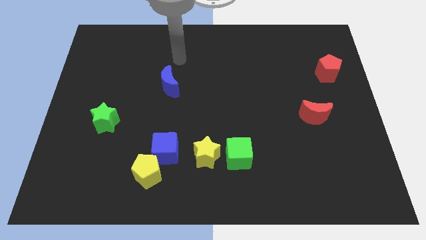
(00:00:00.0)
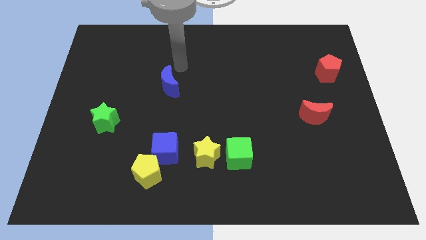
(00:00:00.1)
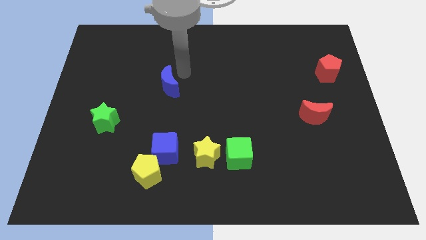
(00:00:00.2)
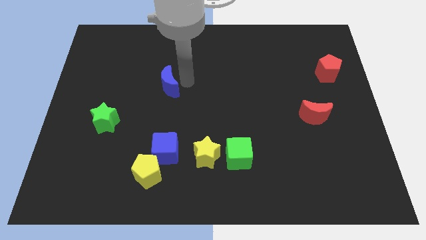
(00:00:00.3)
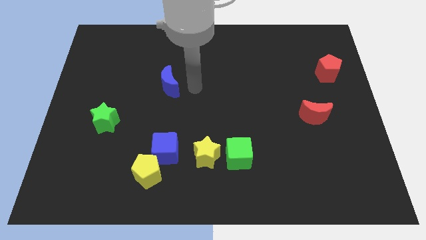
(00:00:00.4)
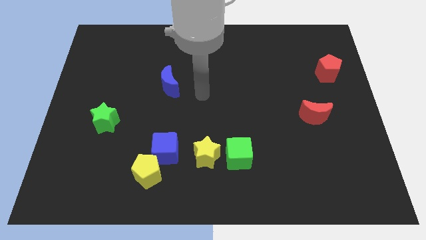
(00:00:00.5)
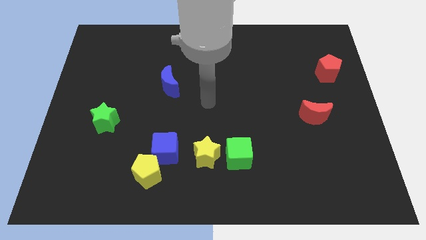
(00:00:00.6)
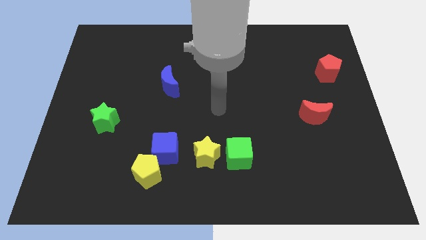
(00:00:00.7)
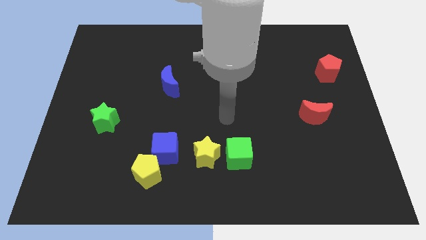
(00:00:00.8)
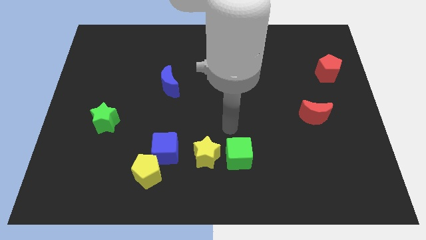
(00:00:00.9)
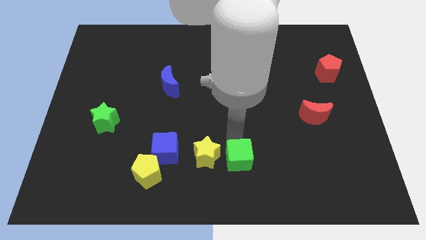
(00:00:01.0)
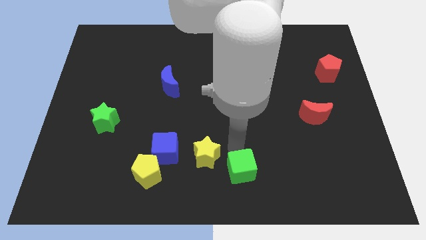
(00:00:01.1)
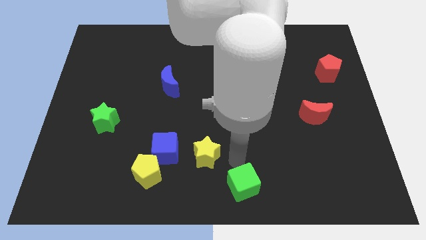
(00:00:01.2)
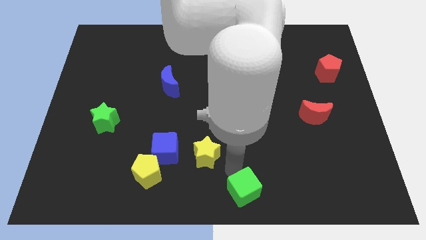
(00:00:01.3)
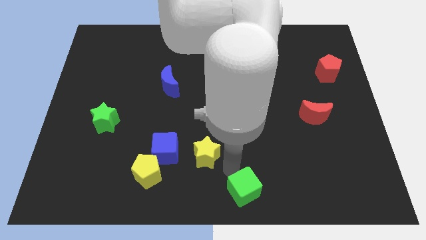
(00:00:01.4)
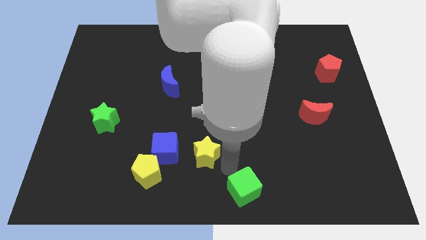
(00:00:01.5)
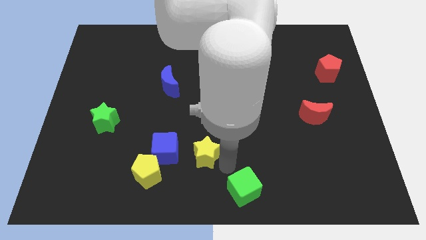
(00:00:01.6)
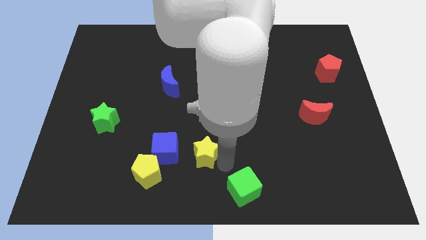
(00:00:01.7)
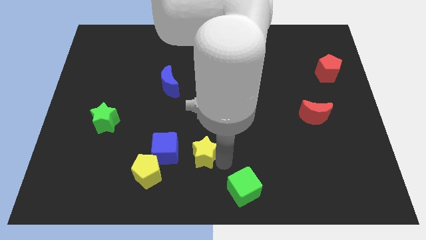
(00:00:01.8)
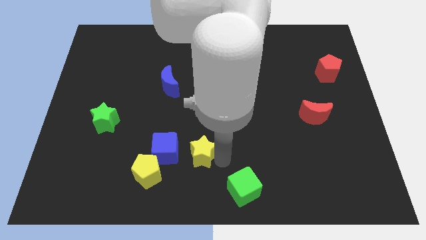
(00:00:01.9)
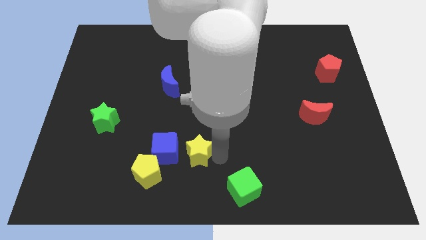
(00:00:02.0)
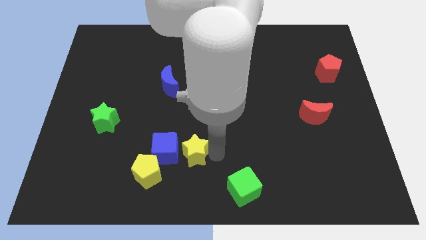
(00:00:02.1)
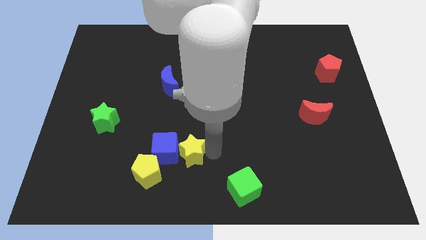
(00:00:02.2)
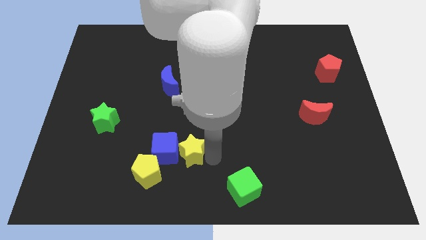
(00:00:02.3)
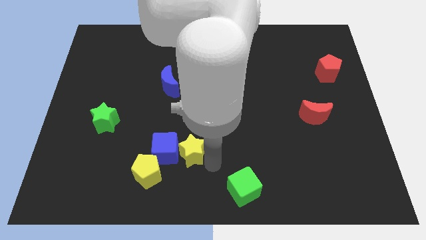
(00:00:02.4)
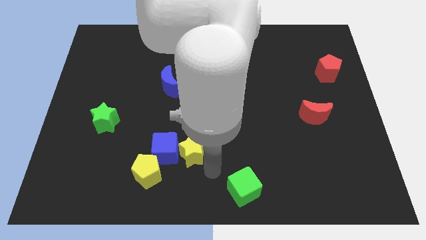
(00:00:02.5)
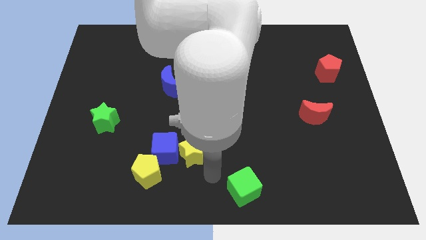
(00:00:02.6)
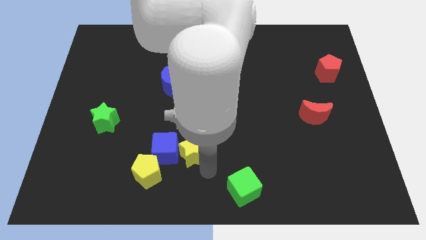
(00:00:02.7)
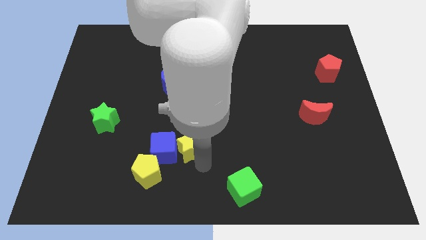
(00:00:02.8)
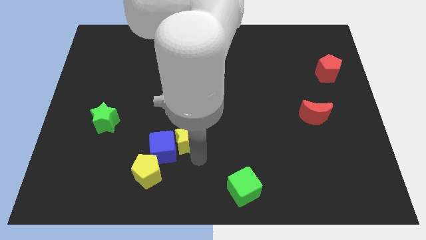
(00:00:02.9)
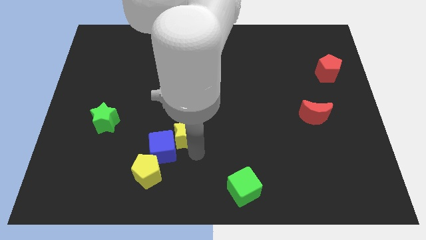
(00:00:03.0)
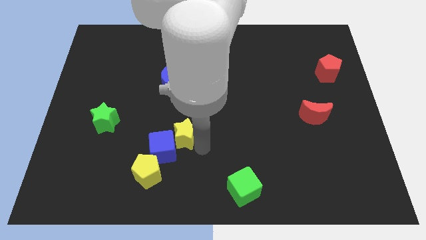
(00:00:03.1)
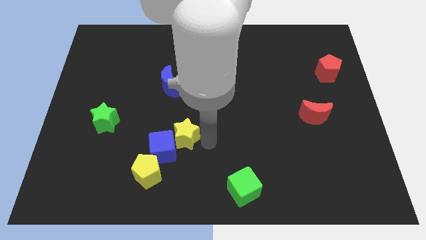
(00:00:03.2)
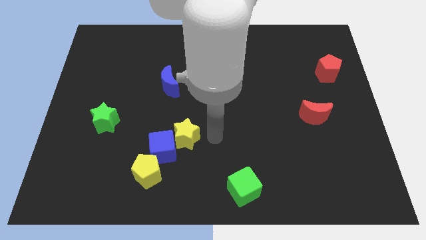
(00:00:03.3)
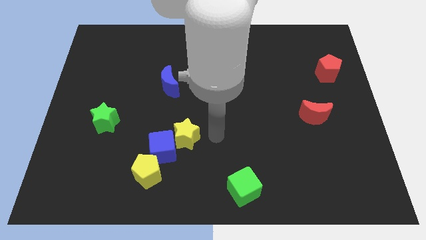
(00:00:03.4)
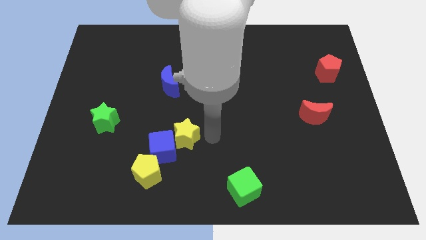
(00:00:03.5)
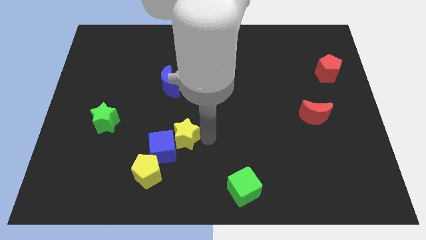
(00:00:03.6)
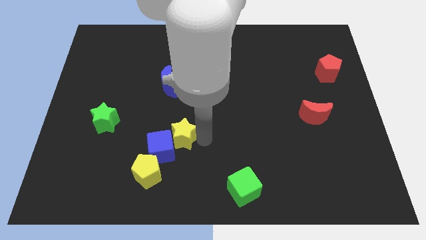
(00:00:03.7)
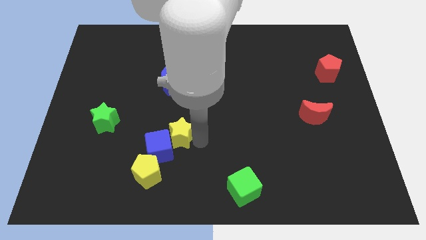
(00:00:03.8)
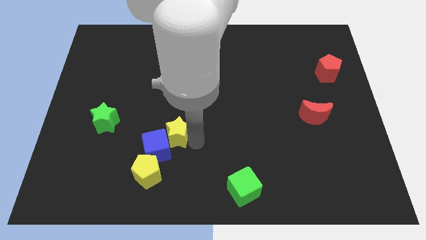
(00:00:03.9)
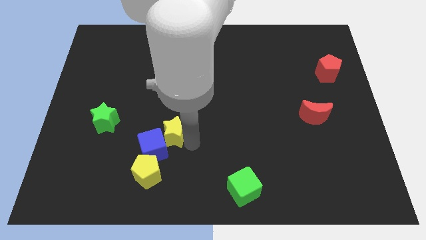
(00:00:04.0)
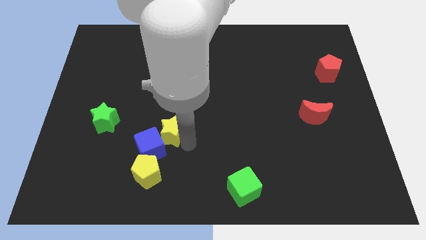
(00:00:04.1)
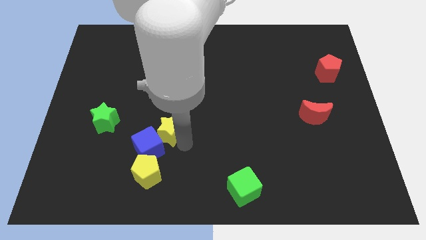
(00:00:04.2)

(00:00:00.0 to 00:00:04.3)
move the yellow star to the left somewhat

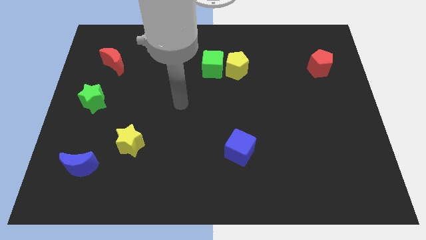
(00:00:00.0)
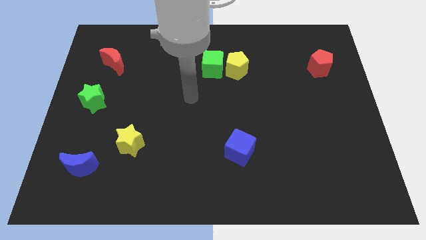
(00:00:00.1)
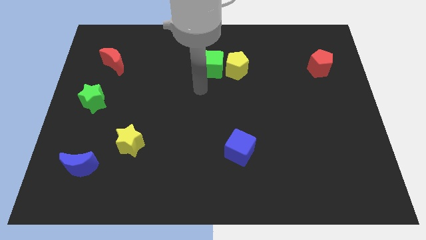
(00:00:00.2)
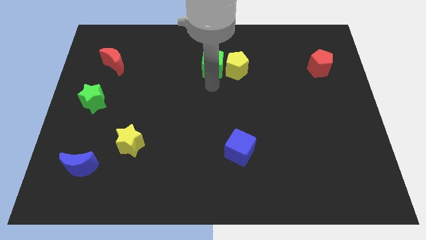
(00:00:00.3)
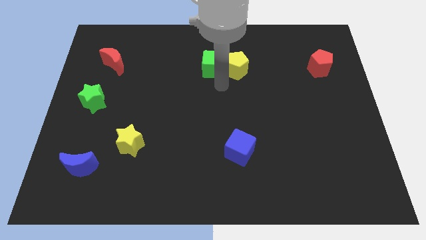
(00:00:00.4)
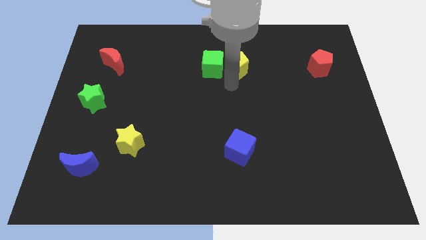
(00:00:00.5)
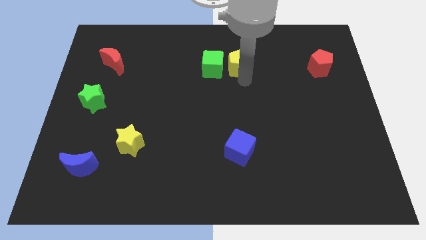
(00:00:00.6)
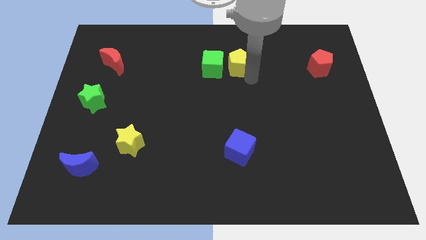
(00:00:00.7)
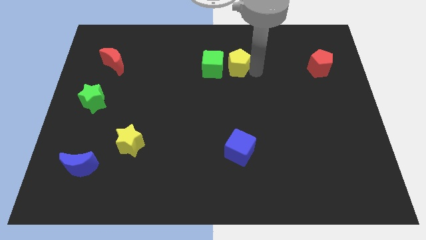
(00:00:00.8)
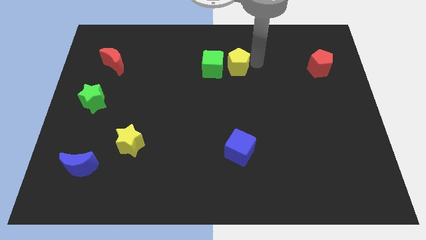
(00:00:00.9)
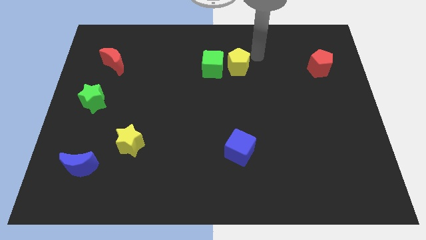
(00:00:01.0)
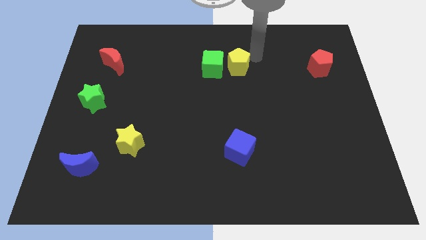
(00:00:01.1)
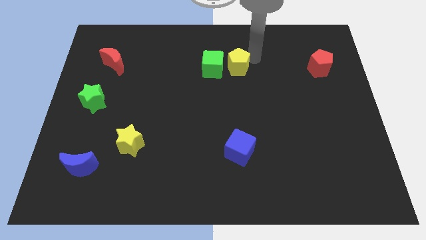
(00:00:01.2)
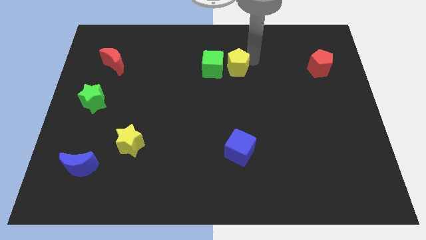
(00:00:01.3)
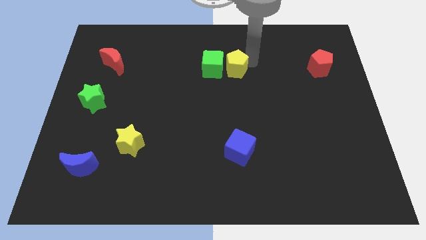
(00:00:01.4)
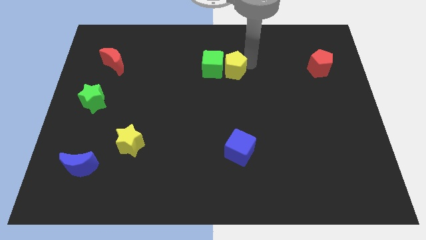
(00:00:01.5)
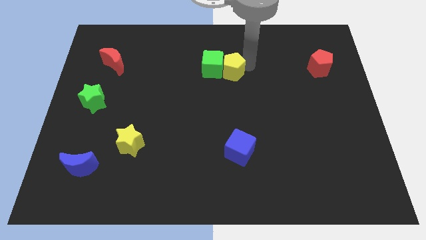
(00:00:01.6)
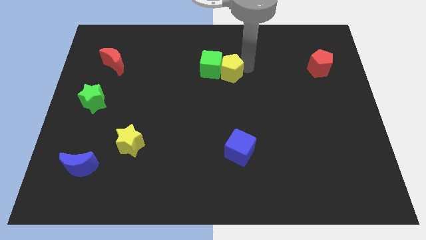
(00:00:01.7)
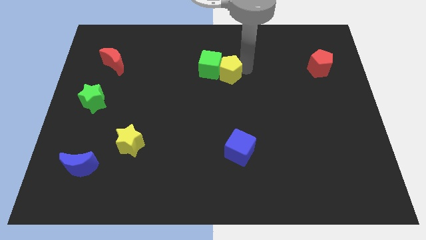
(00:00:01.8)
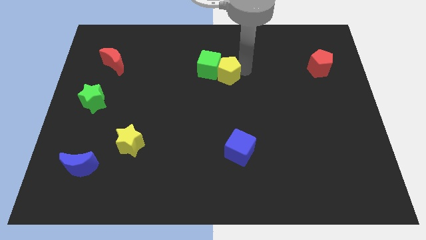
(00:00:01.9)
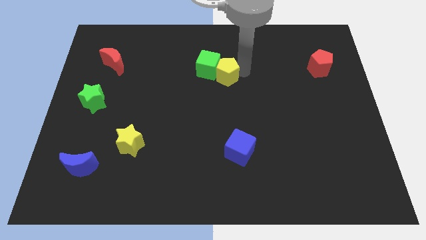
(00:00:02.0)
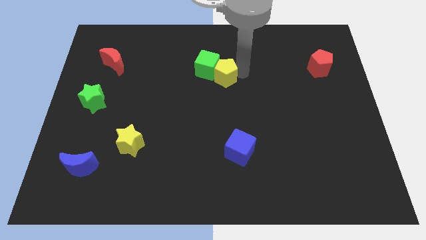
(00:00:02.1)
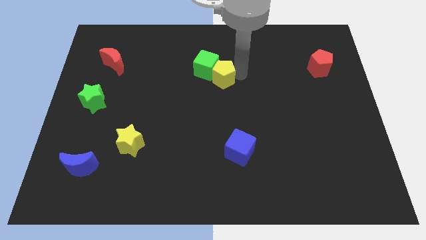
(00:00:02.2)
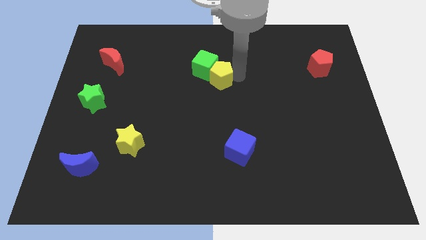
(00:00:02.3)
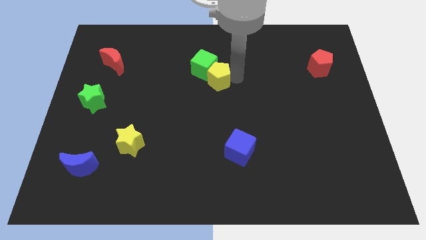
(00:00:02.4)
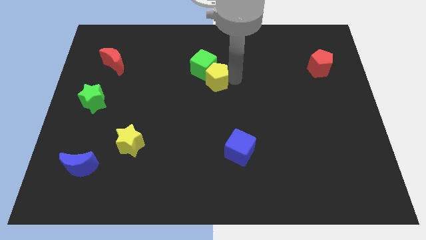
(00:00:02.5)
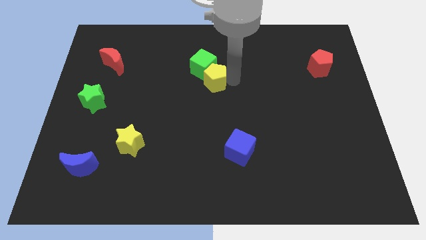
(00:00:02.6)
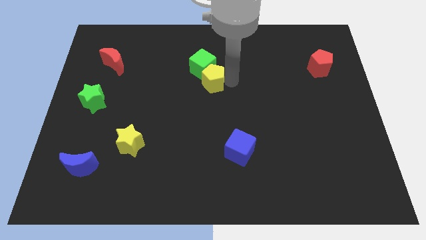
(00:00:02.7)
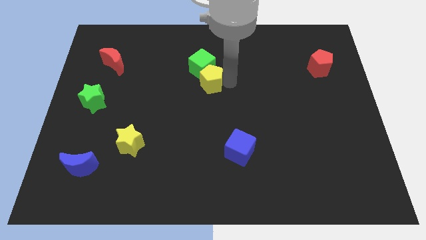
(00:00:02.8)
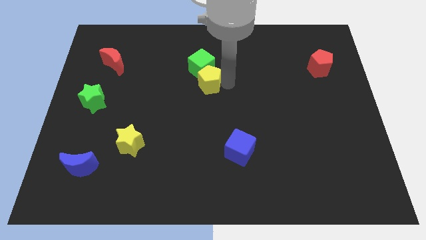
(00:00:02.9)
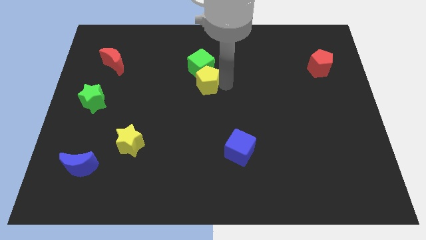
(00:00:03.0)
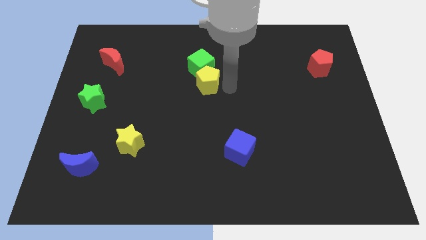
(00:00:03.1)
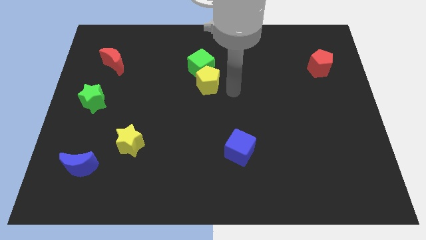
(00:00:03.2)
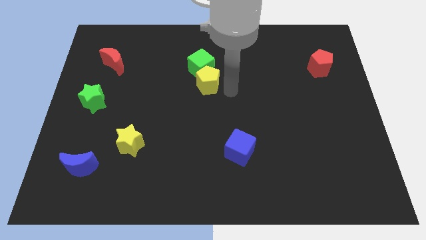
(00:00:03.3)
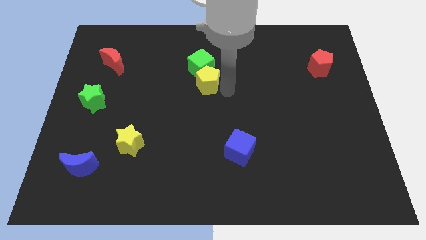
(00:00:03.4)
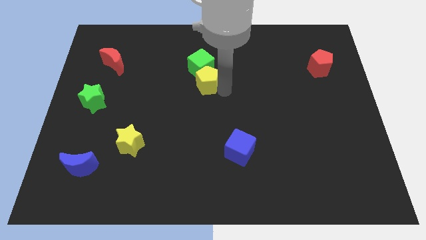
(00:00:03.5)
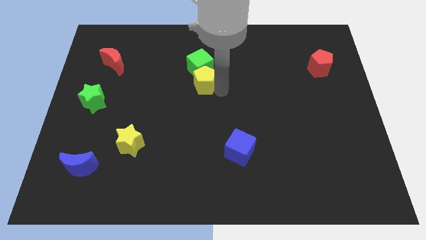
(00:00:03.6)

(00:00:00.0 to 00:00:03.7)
slide the yellow pentagon left somewhat
